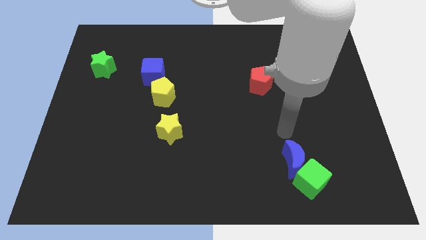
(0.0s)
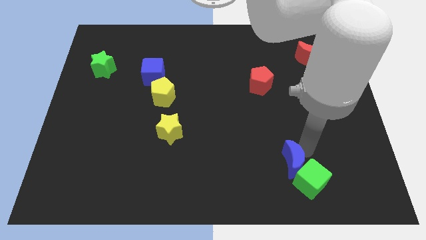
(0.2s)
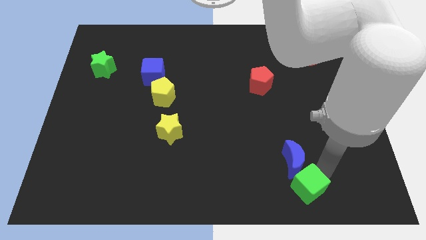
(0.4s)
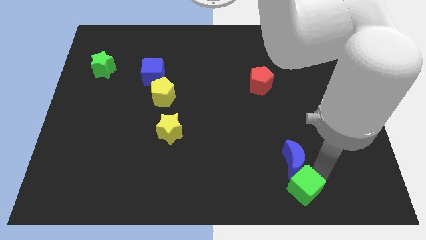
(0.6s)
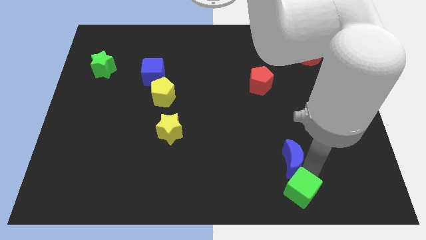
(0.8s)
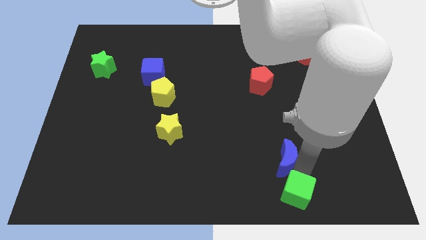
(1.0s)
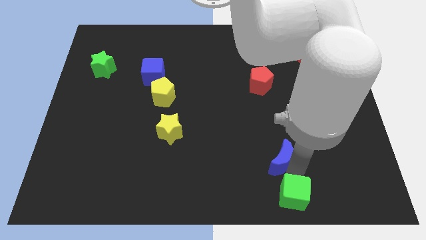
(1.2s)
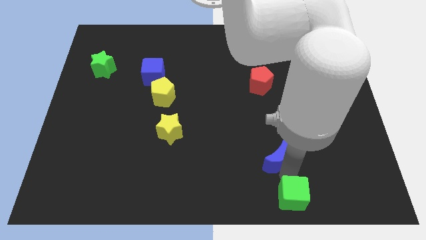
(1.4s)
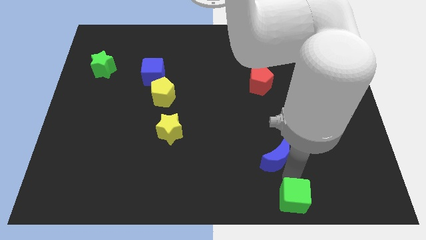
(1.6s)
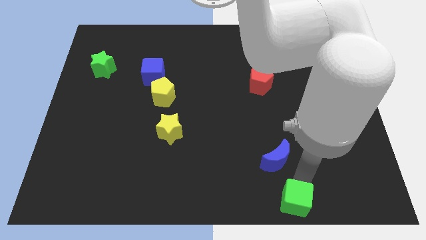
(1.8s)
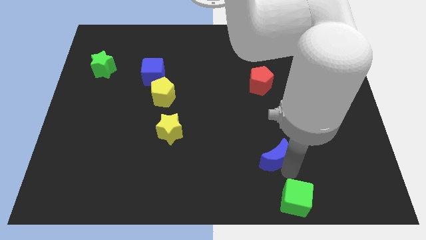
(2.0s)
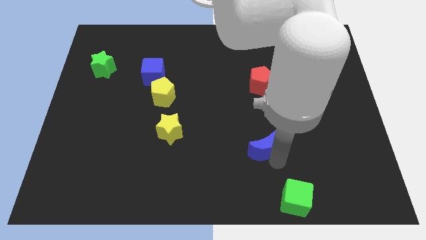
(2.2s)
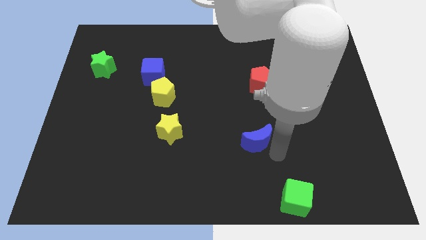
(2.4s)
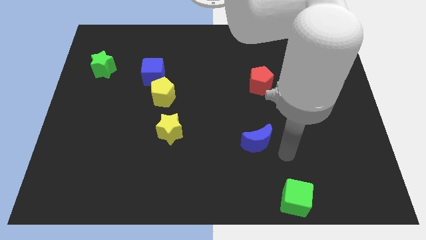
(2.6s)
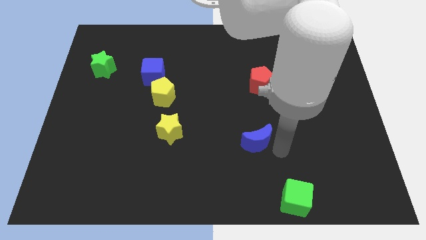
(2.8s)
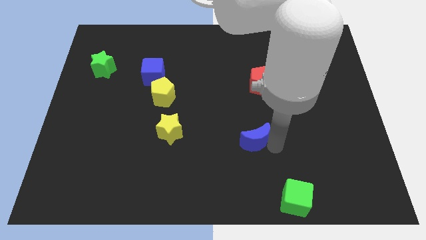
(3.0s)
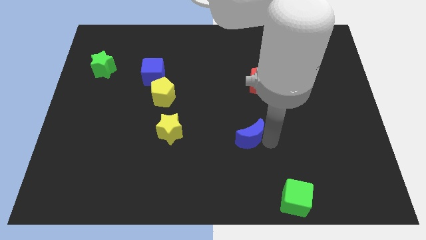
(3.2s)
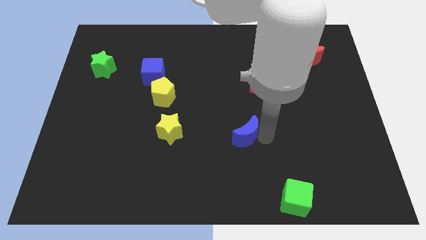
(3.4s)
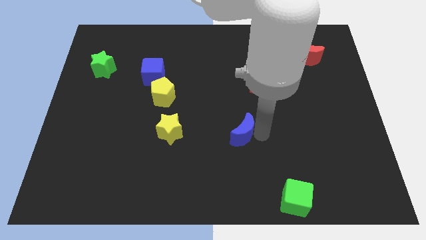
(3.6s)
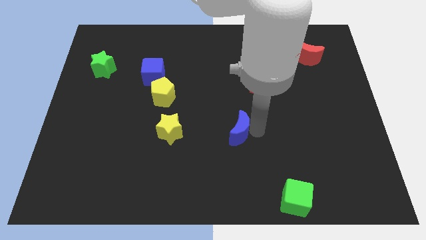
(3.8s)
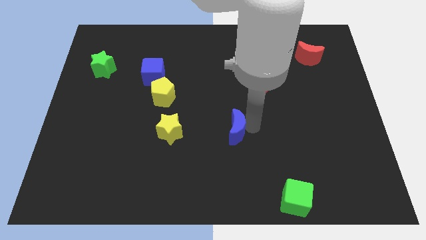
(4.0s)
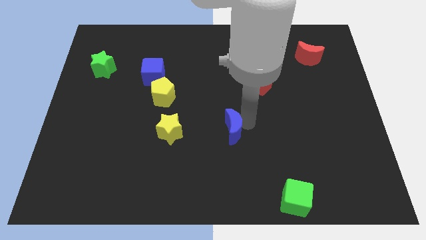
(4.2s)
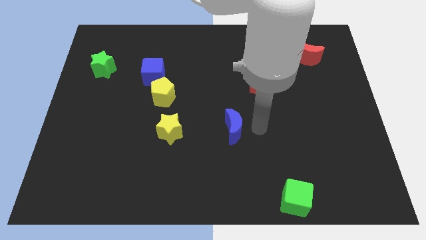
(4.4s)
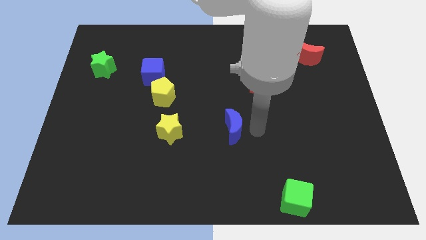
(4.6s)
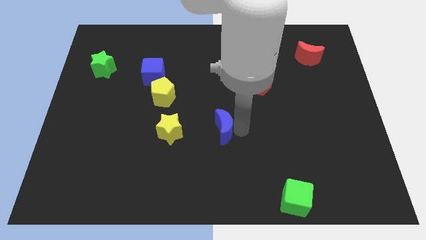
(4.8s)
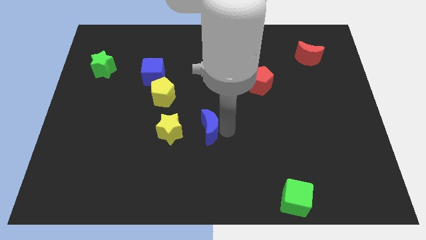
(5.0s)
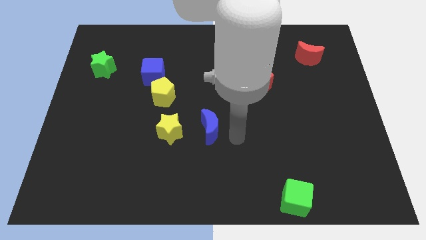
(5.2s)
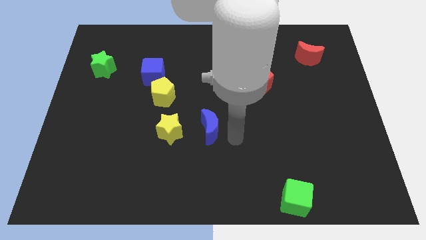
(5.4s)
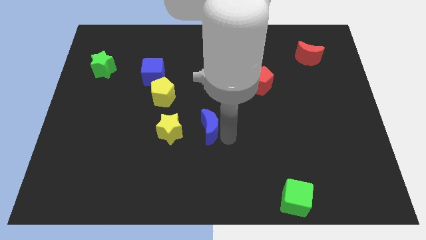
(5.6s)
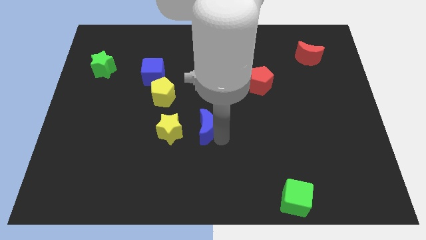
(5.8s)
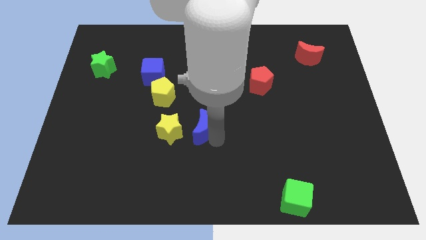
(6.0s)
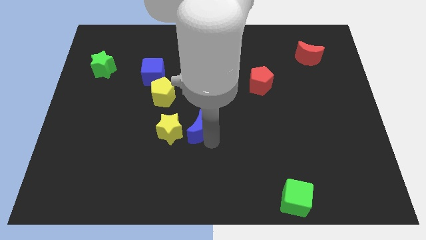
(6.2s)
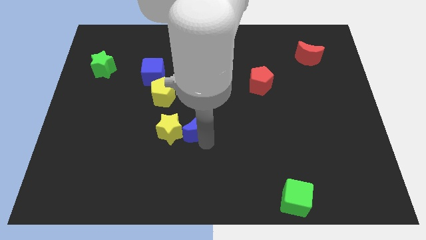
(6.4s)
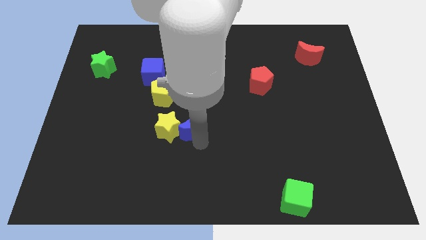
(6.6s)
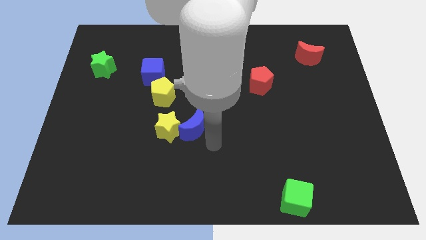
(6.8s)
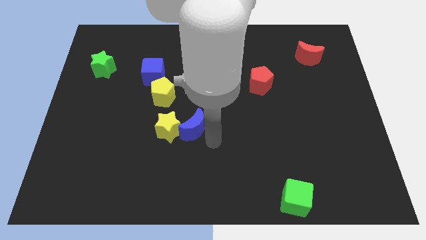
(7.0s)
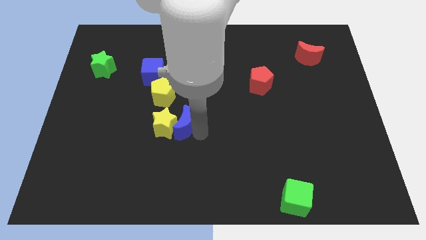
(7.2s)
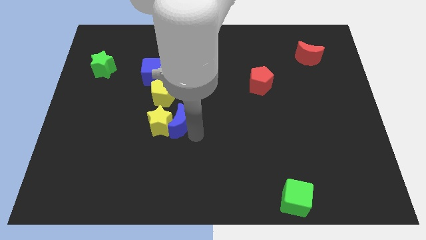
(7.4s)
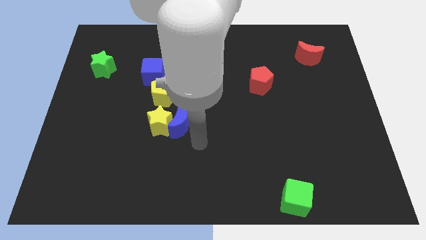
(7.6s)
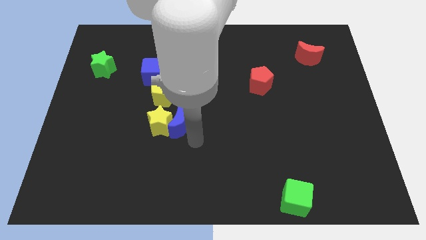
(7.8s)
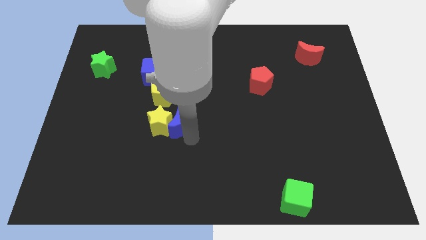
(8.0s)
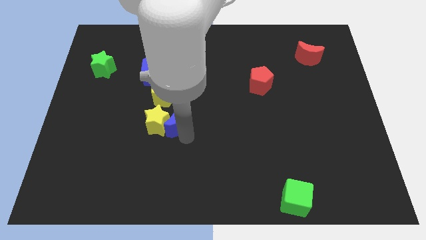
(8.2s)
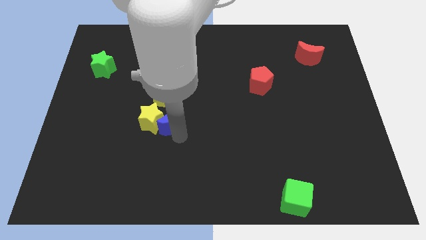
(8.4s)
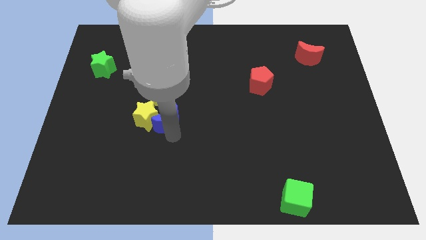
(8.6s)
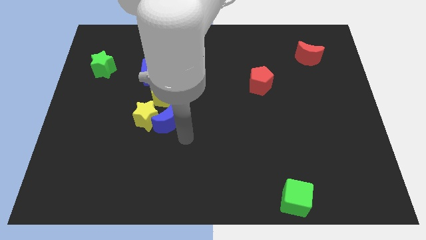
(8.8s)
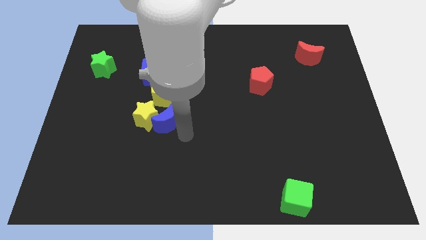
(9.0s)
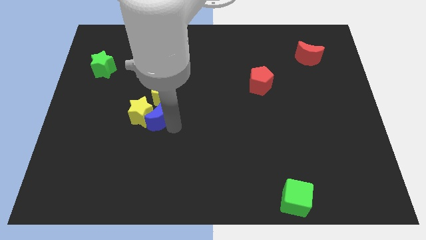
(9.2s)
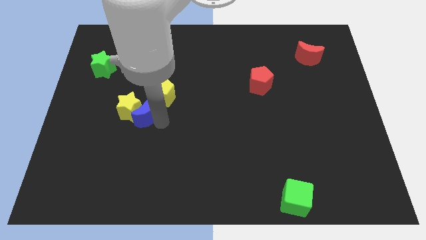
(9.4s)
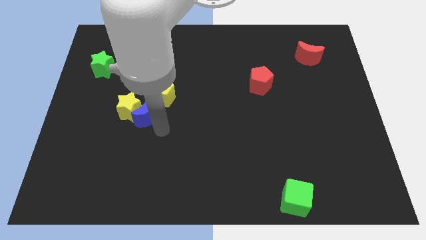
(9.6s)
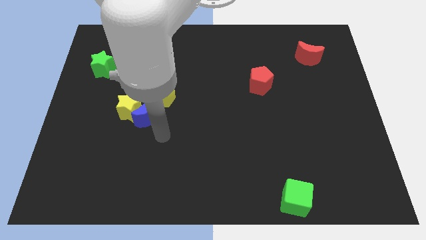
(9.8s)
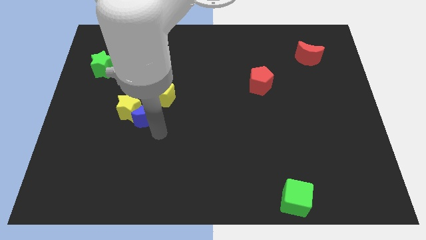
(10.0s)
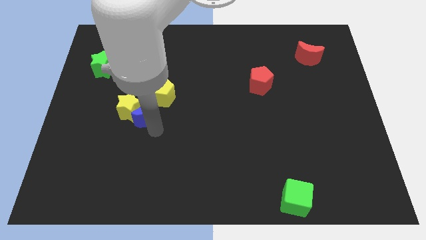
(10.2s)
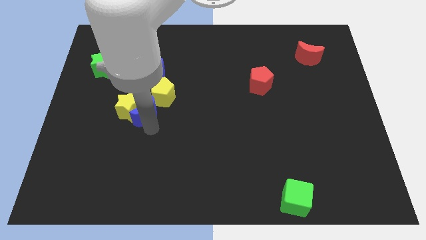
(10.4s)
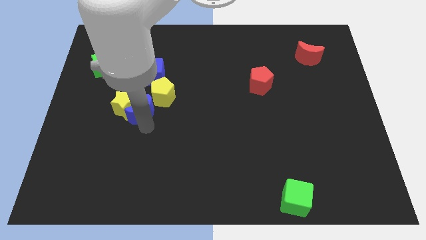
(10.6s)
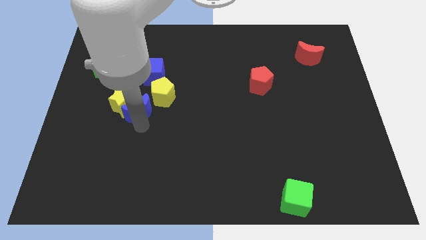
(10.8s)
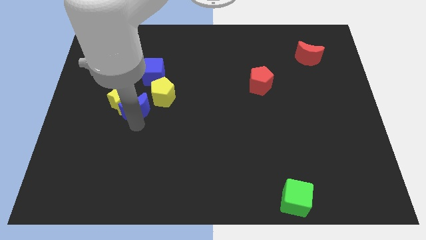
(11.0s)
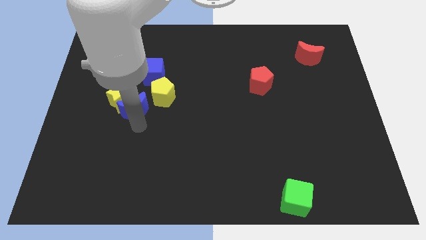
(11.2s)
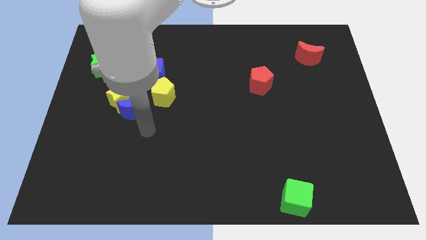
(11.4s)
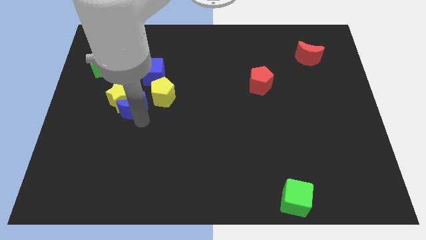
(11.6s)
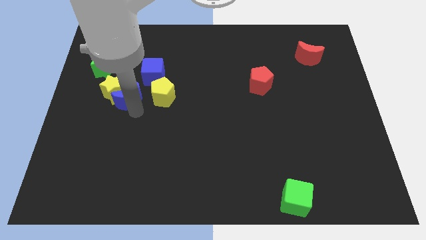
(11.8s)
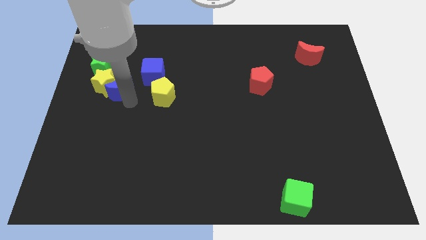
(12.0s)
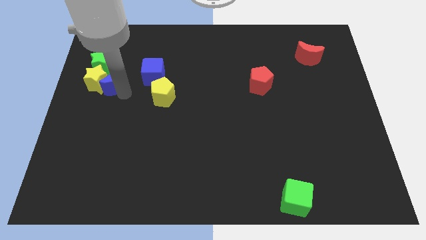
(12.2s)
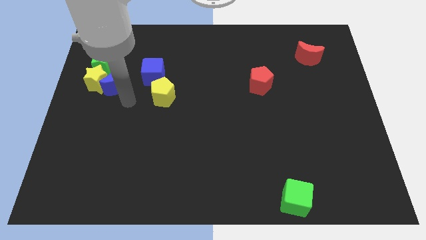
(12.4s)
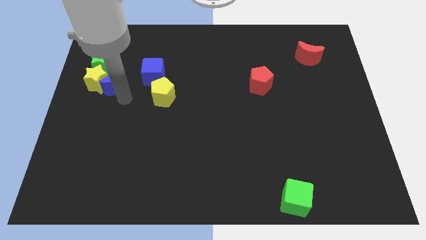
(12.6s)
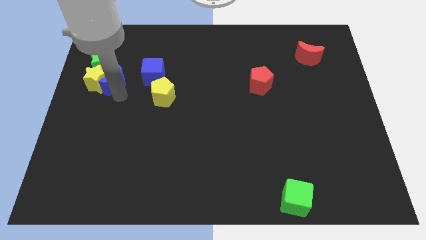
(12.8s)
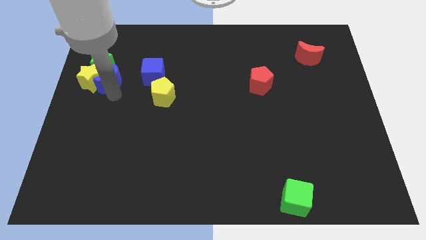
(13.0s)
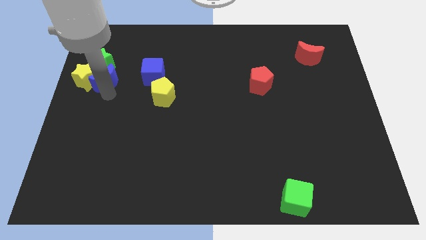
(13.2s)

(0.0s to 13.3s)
move the blue moon to the green star

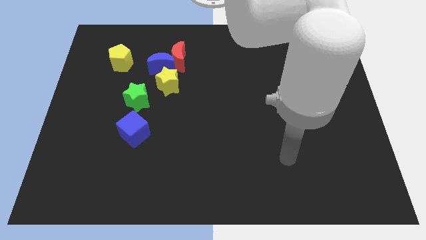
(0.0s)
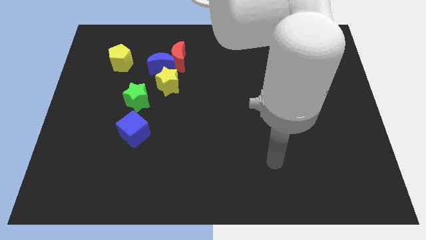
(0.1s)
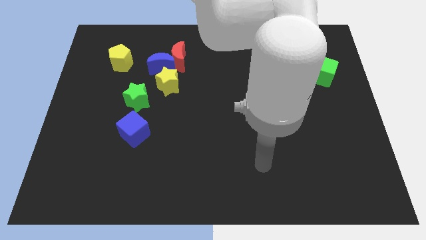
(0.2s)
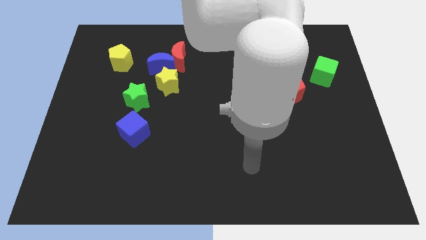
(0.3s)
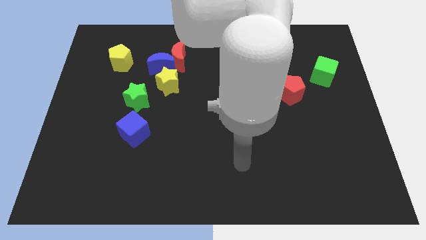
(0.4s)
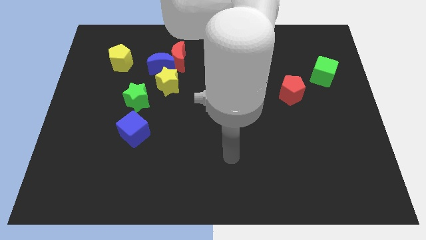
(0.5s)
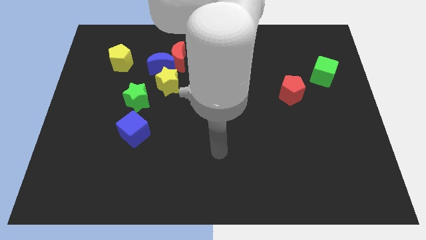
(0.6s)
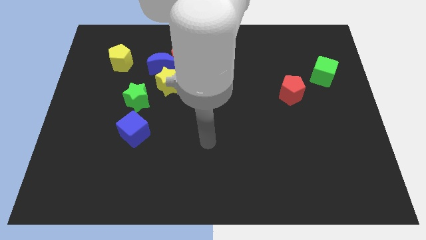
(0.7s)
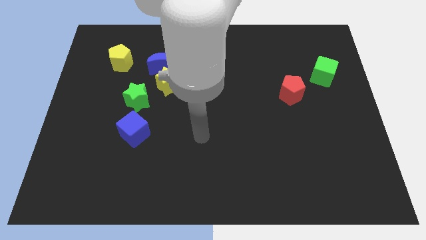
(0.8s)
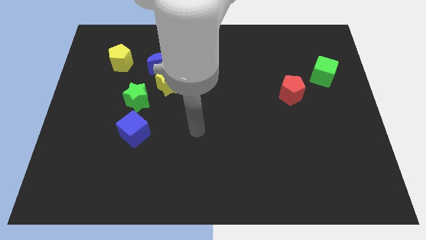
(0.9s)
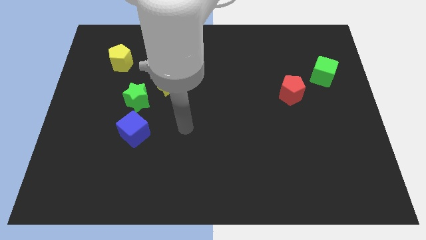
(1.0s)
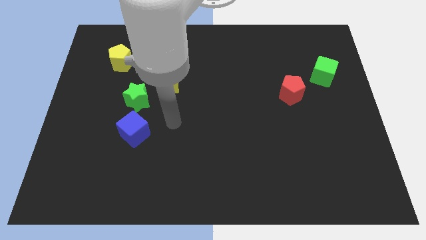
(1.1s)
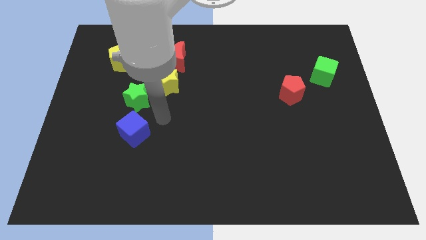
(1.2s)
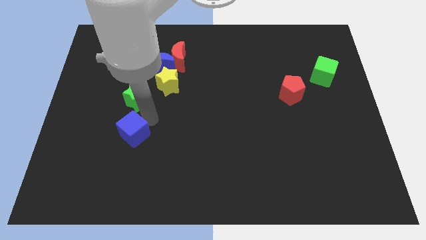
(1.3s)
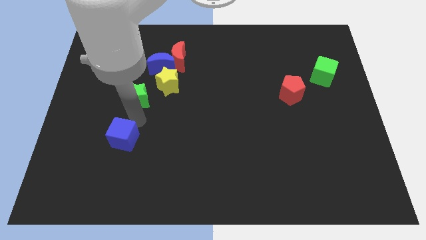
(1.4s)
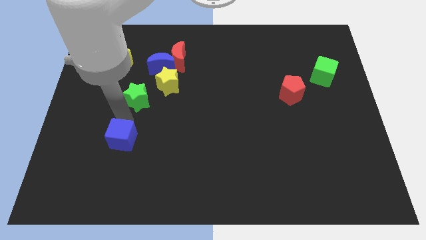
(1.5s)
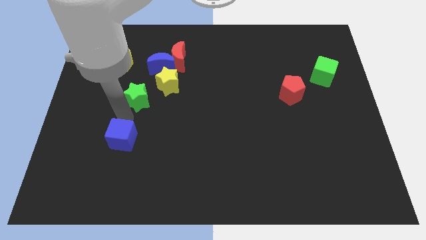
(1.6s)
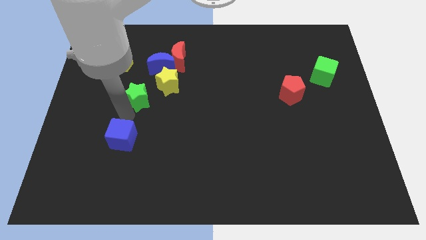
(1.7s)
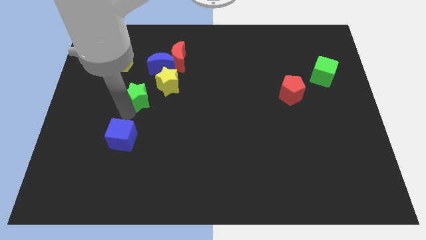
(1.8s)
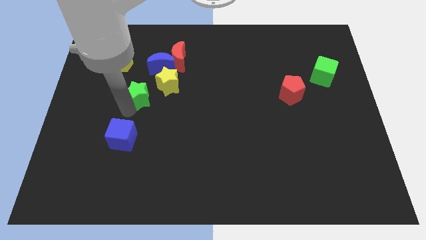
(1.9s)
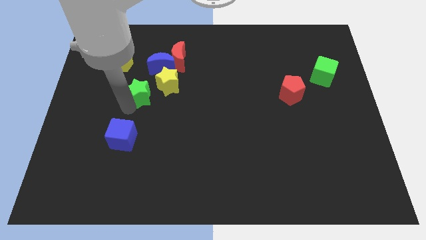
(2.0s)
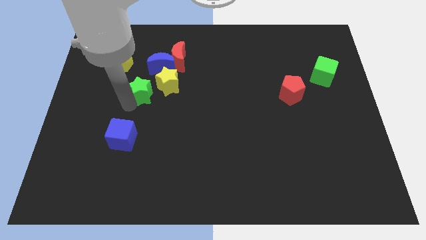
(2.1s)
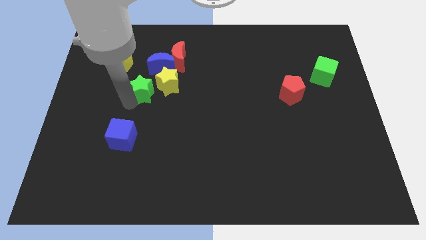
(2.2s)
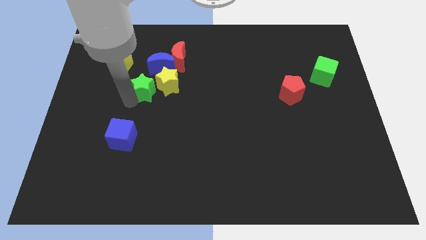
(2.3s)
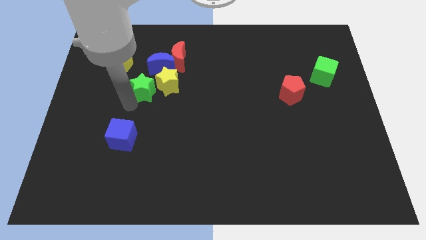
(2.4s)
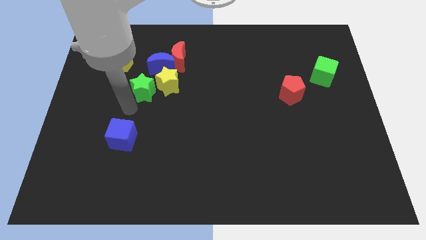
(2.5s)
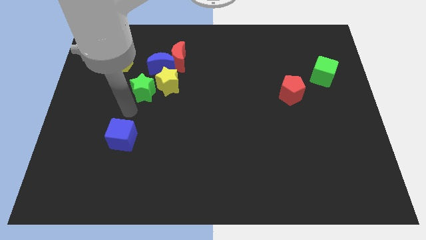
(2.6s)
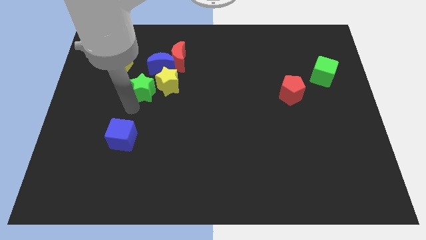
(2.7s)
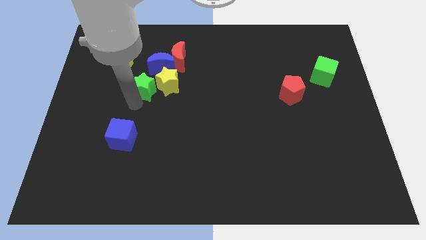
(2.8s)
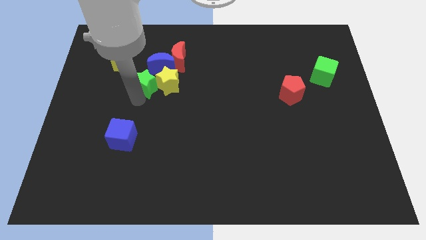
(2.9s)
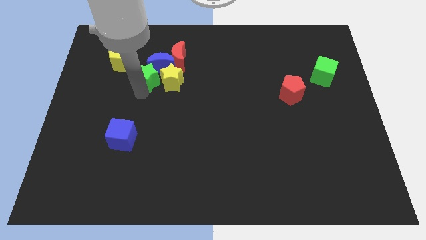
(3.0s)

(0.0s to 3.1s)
slide the green star towards the blue moon
